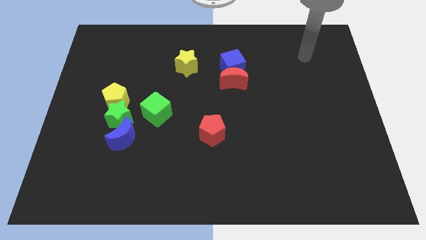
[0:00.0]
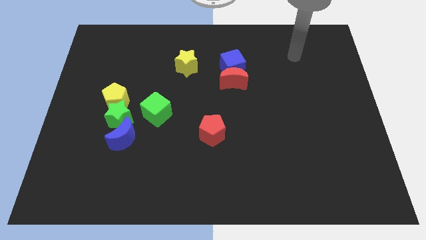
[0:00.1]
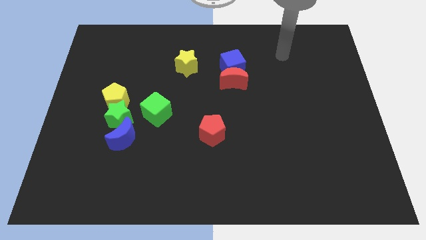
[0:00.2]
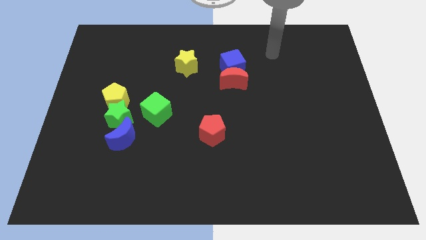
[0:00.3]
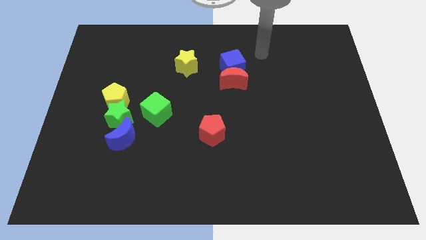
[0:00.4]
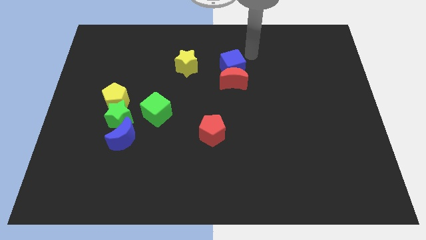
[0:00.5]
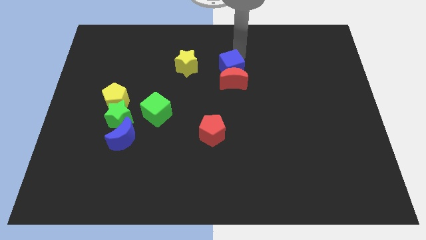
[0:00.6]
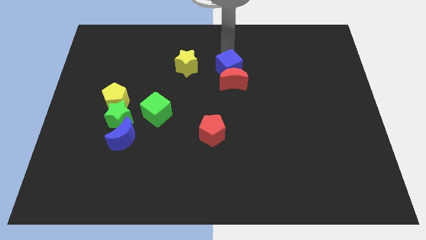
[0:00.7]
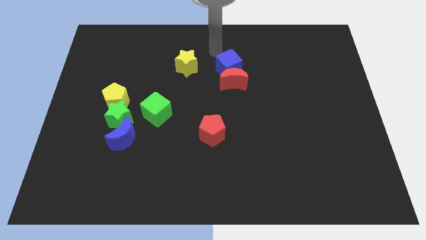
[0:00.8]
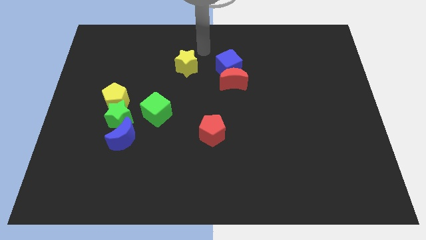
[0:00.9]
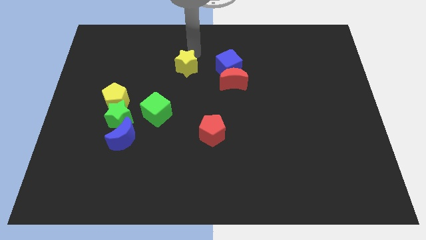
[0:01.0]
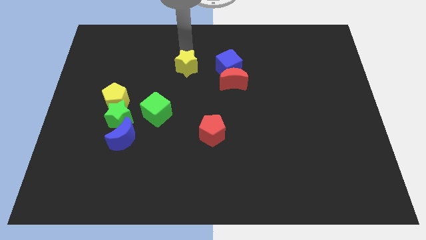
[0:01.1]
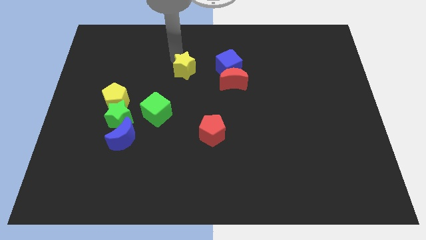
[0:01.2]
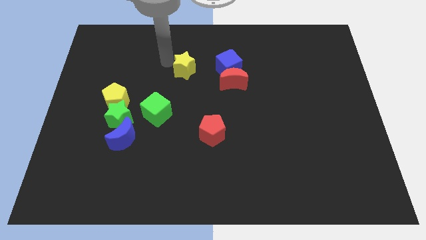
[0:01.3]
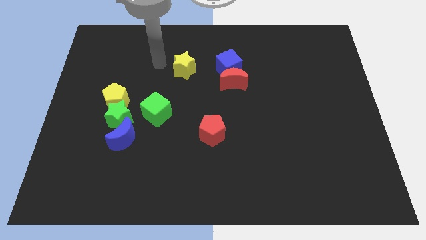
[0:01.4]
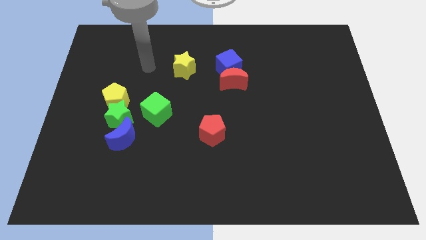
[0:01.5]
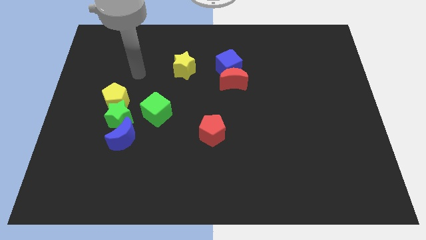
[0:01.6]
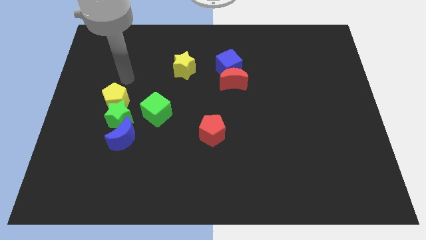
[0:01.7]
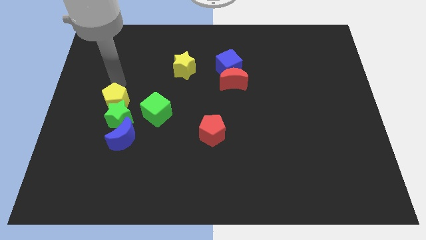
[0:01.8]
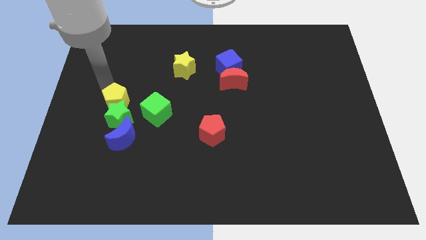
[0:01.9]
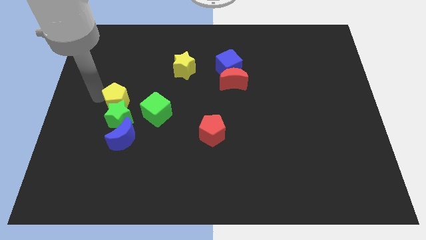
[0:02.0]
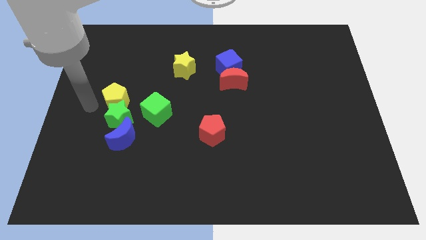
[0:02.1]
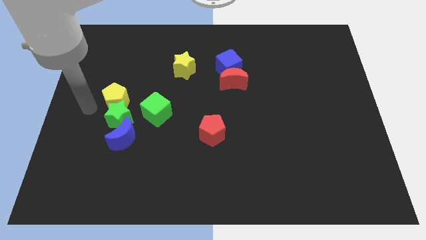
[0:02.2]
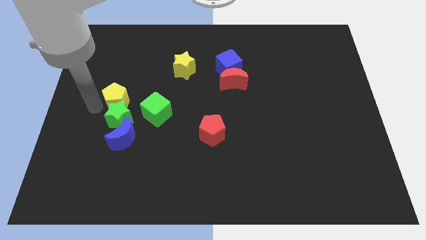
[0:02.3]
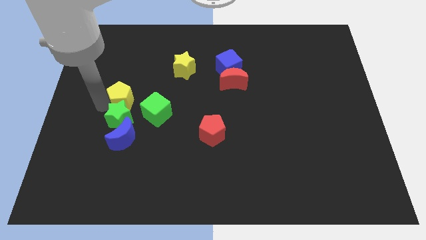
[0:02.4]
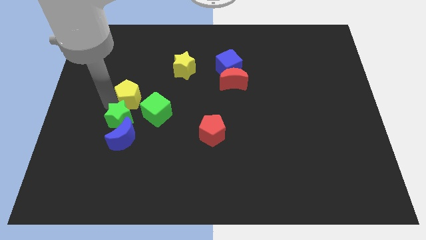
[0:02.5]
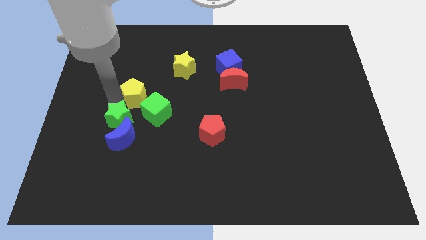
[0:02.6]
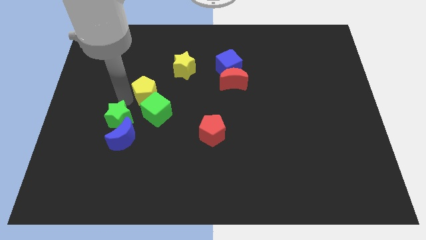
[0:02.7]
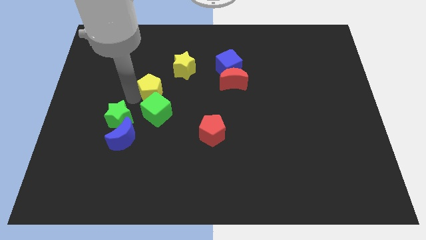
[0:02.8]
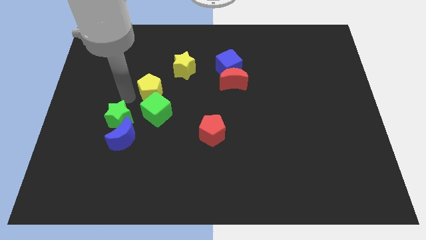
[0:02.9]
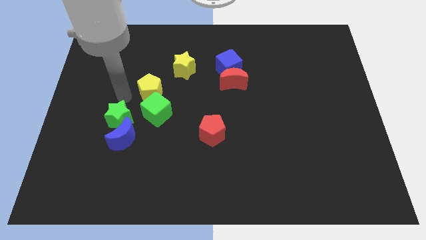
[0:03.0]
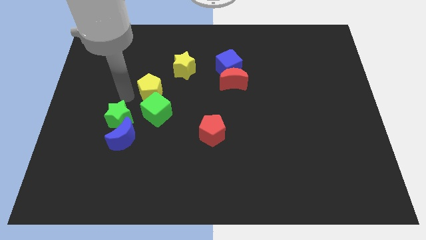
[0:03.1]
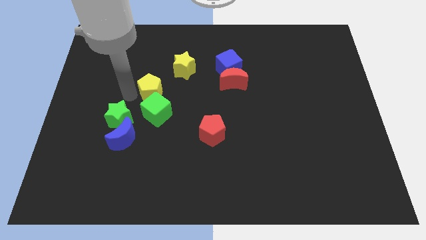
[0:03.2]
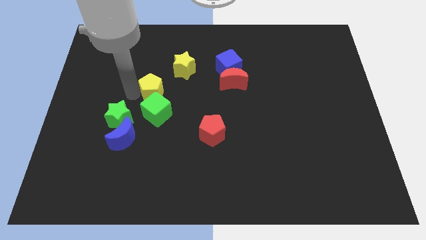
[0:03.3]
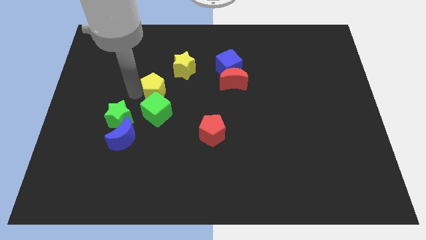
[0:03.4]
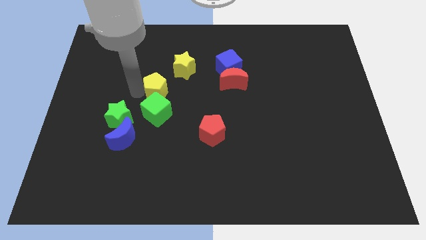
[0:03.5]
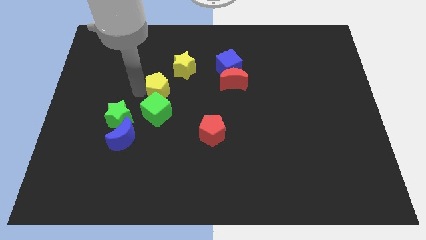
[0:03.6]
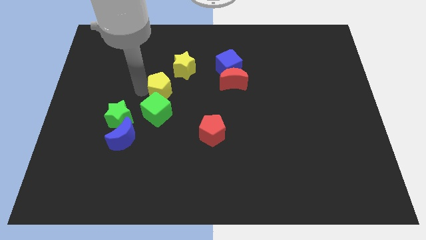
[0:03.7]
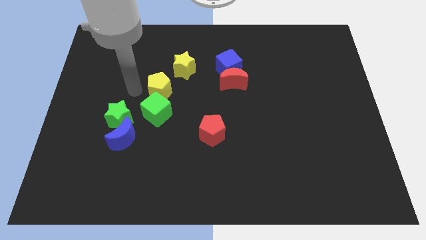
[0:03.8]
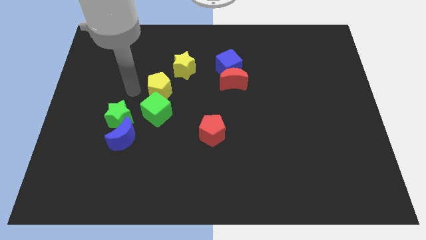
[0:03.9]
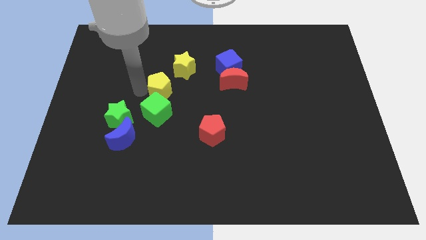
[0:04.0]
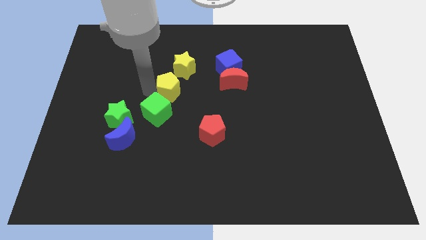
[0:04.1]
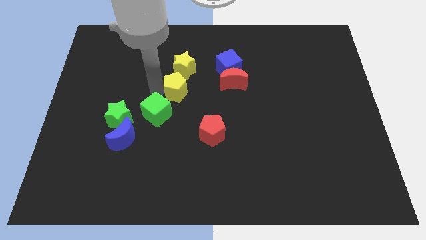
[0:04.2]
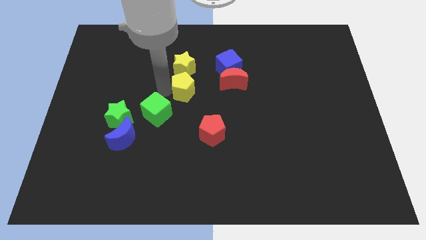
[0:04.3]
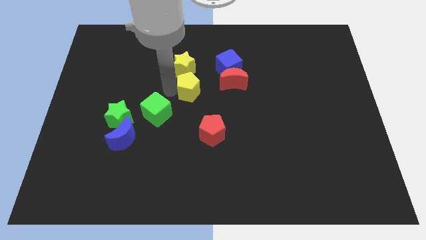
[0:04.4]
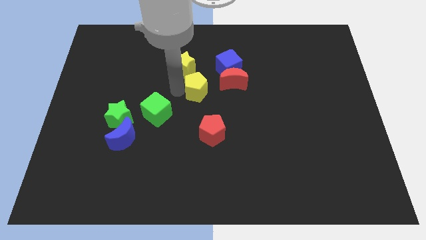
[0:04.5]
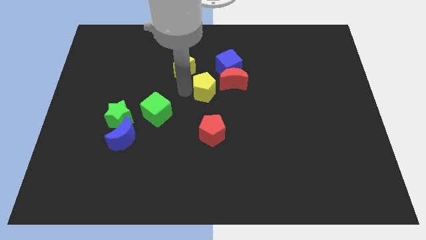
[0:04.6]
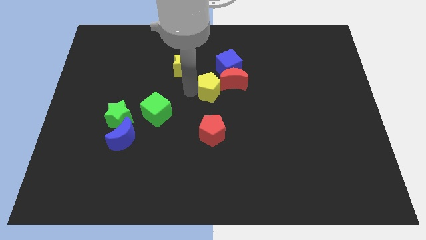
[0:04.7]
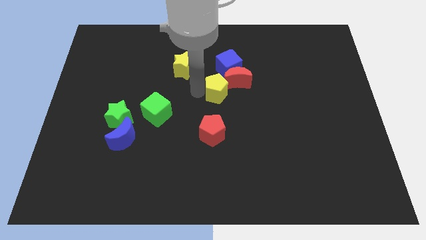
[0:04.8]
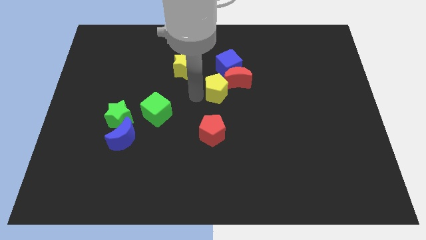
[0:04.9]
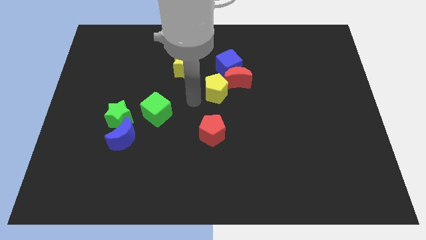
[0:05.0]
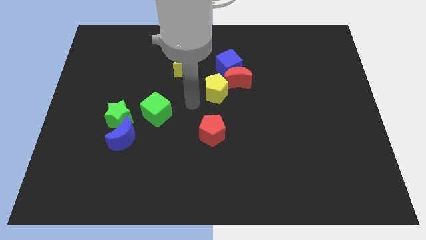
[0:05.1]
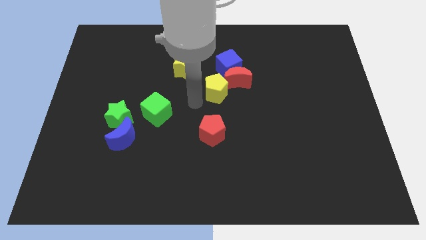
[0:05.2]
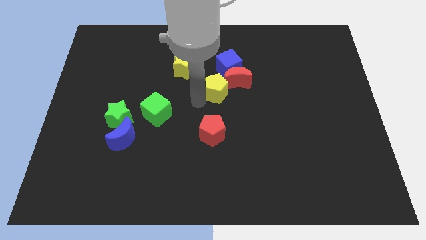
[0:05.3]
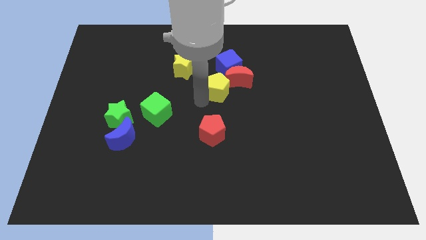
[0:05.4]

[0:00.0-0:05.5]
push the yellow pentagon towards the red moon

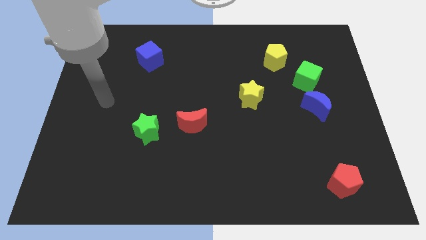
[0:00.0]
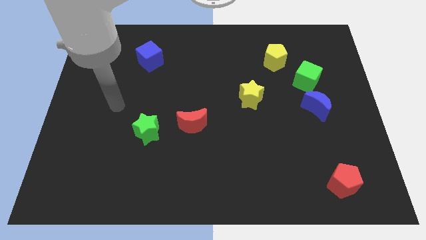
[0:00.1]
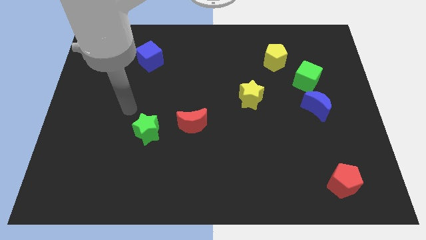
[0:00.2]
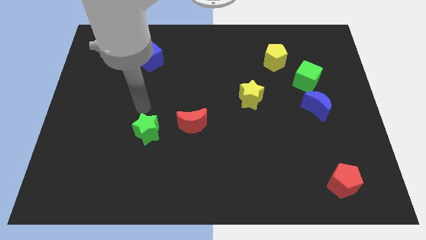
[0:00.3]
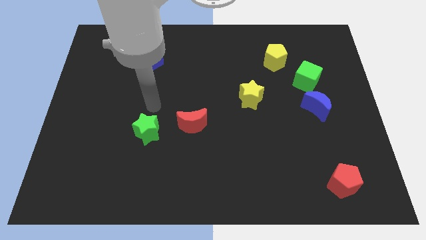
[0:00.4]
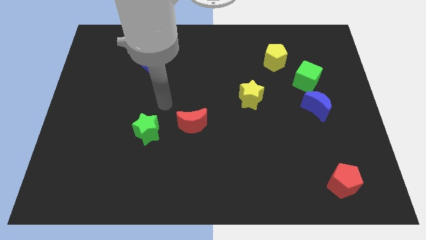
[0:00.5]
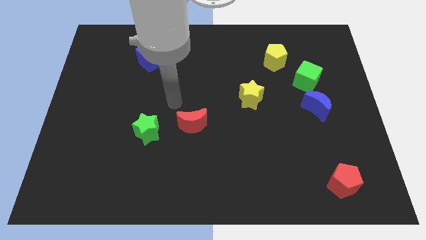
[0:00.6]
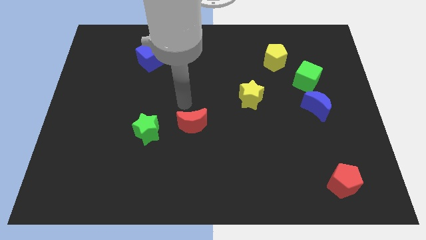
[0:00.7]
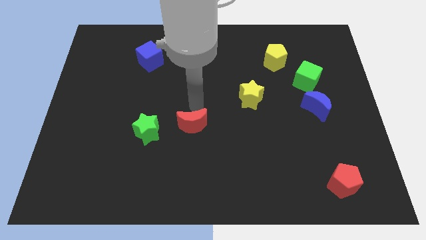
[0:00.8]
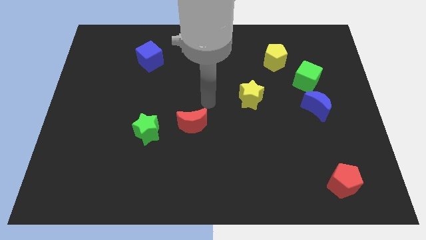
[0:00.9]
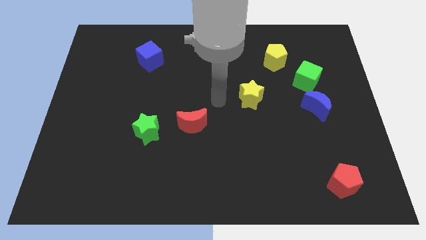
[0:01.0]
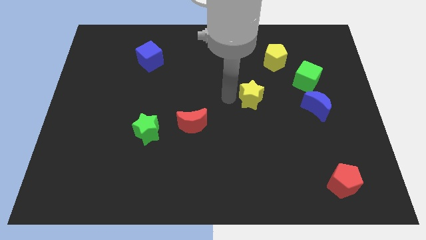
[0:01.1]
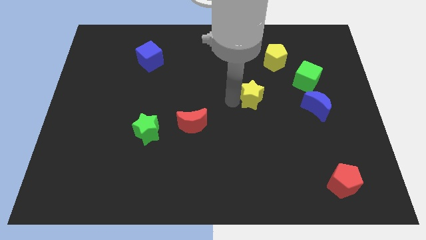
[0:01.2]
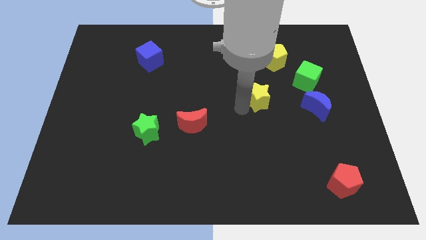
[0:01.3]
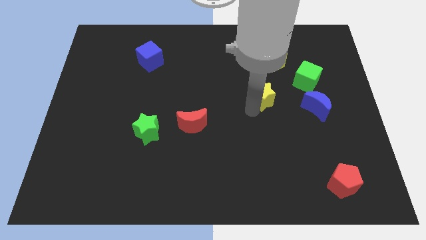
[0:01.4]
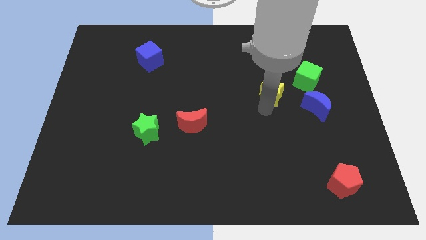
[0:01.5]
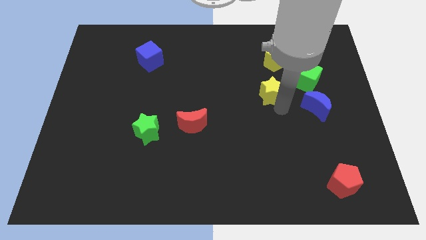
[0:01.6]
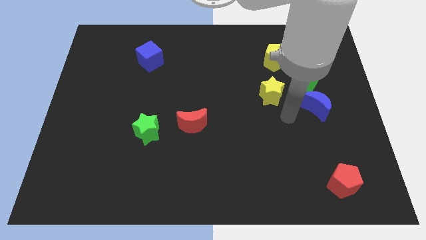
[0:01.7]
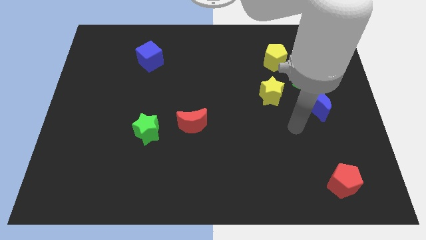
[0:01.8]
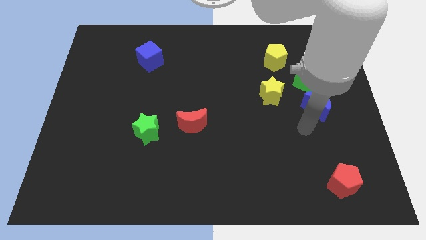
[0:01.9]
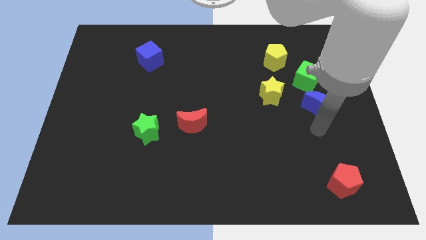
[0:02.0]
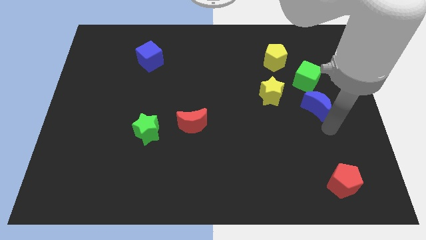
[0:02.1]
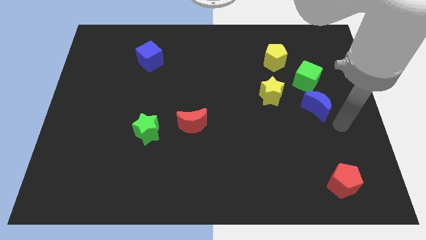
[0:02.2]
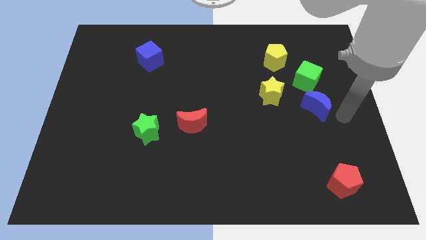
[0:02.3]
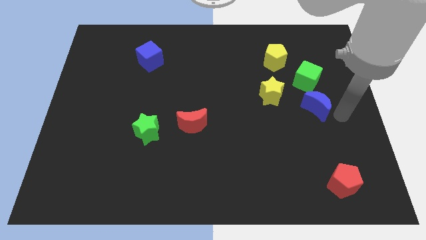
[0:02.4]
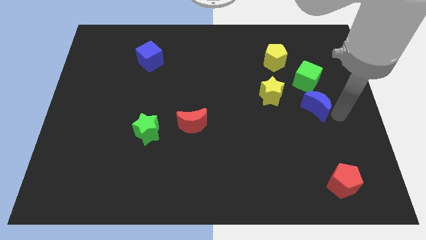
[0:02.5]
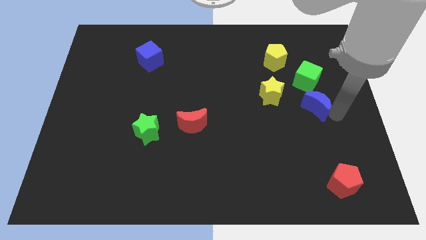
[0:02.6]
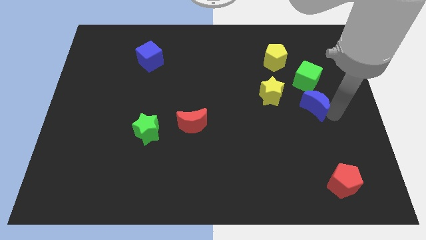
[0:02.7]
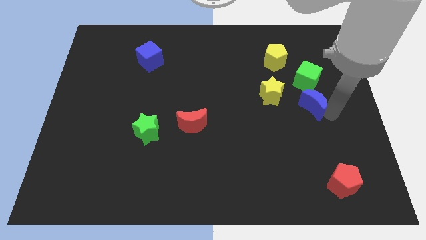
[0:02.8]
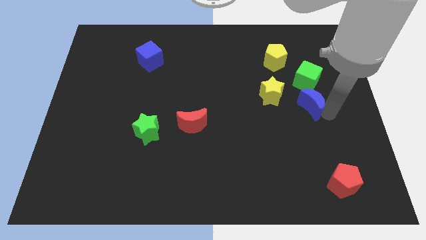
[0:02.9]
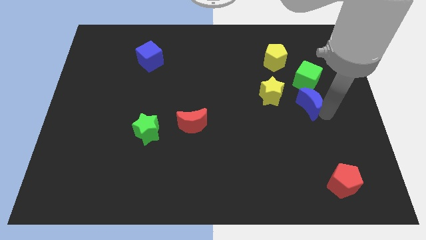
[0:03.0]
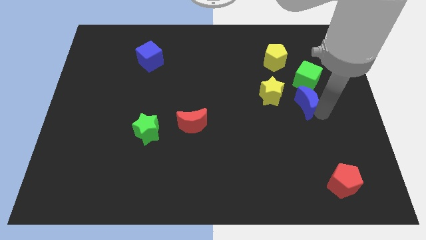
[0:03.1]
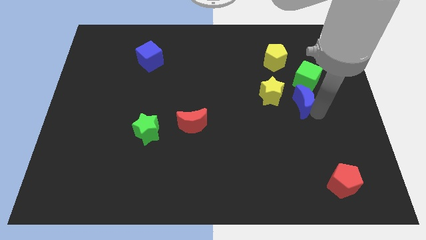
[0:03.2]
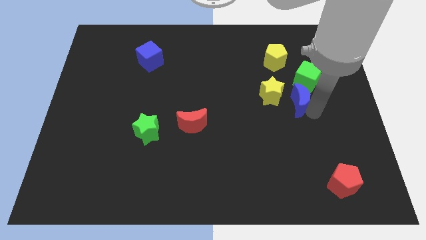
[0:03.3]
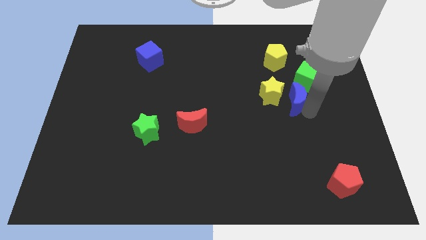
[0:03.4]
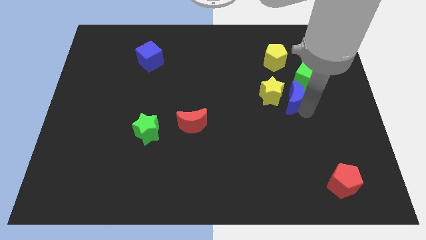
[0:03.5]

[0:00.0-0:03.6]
put the blue moon towards the yellow star
